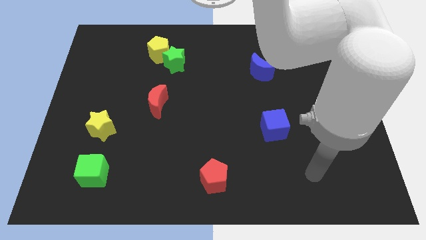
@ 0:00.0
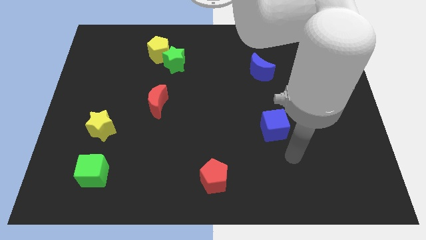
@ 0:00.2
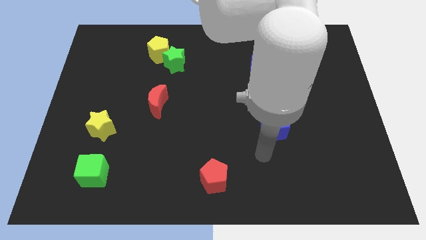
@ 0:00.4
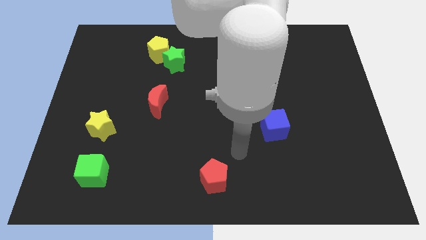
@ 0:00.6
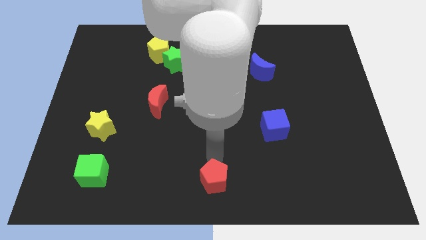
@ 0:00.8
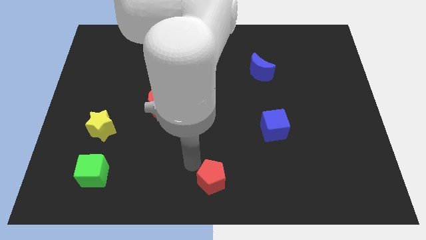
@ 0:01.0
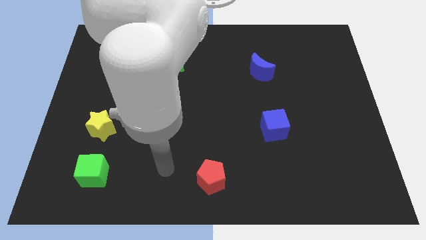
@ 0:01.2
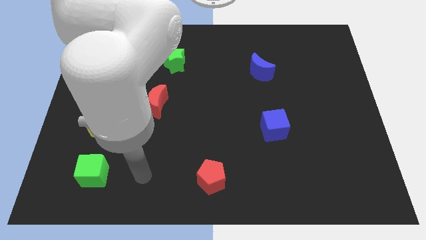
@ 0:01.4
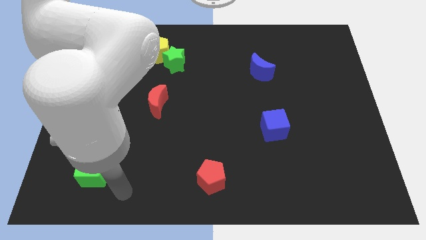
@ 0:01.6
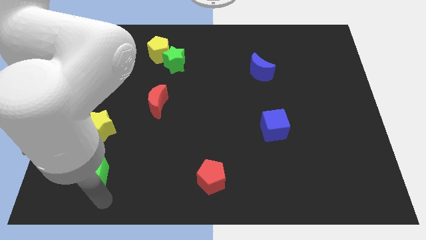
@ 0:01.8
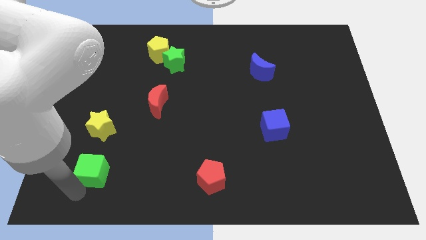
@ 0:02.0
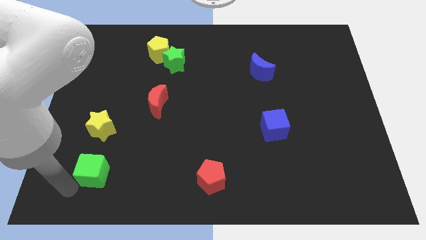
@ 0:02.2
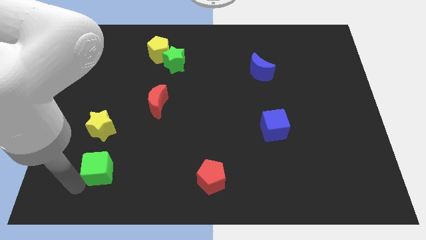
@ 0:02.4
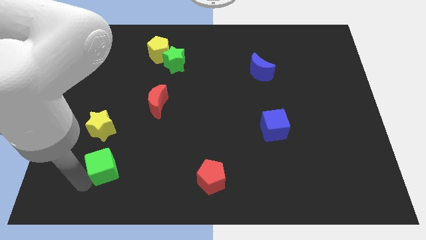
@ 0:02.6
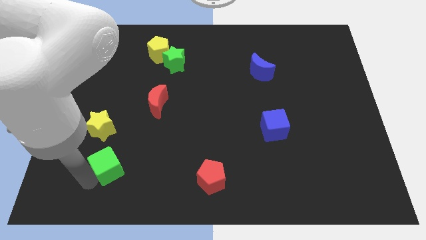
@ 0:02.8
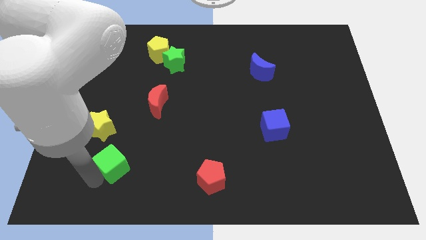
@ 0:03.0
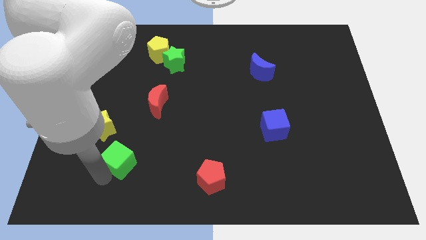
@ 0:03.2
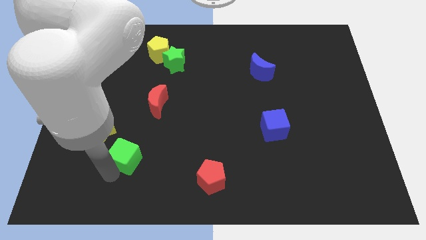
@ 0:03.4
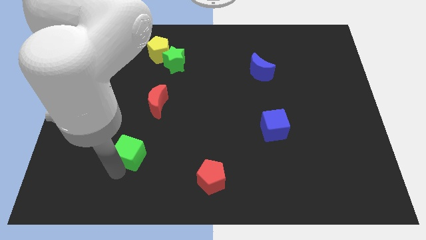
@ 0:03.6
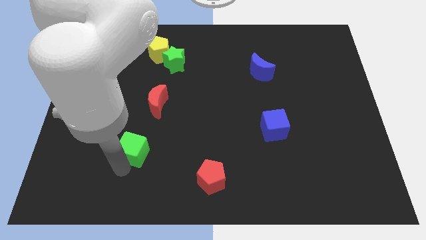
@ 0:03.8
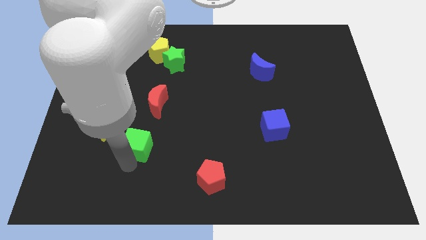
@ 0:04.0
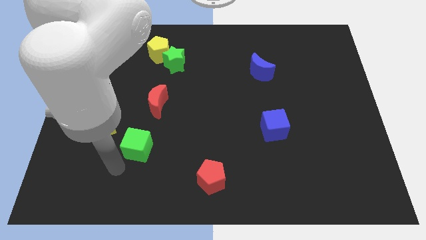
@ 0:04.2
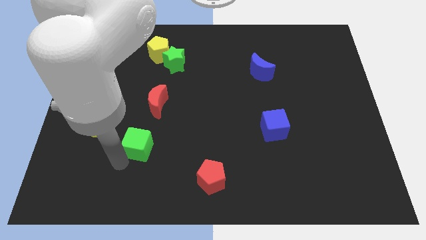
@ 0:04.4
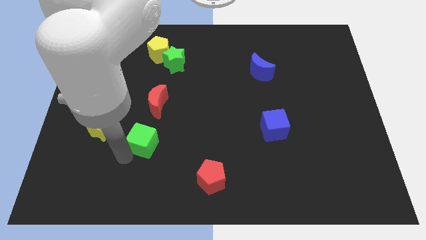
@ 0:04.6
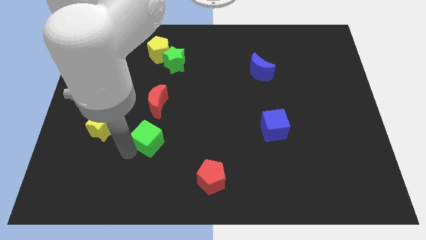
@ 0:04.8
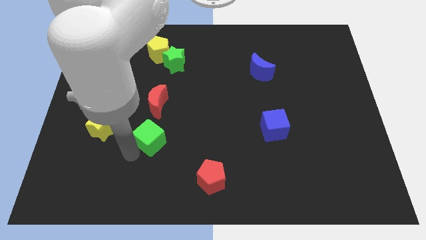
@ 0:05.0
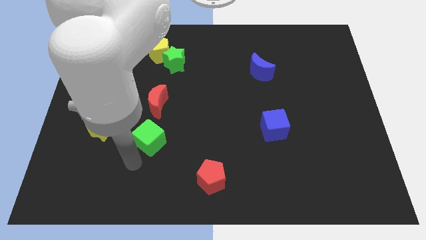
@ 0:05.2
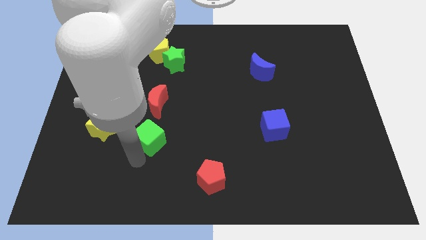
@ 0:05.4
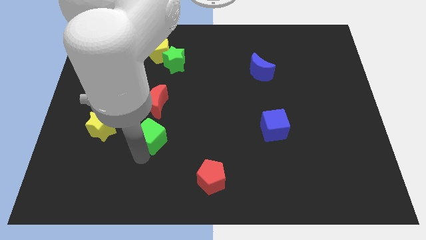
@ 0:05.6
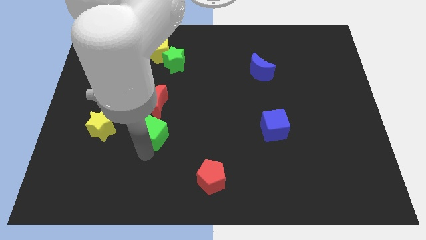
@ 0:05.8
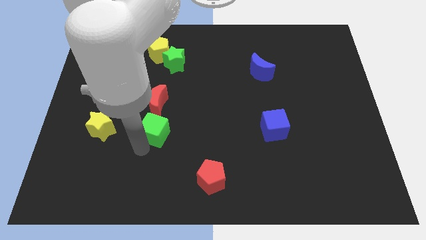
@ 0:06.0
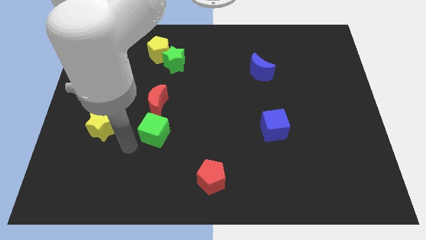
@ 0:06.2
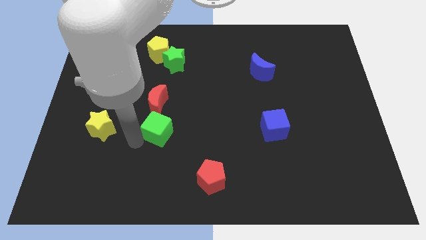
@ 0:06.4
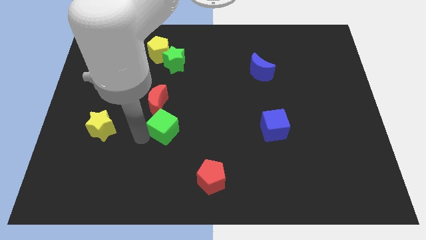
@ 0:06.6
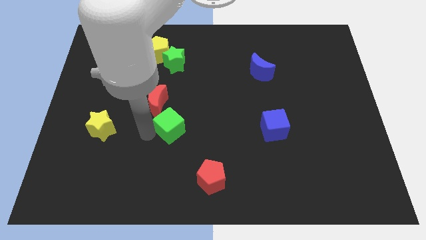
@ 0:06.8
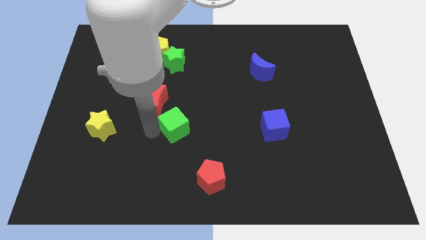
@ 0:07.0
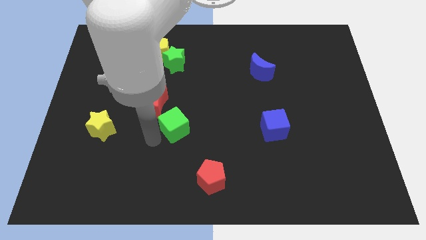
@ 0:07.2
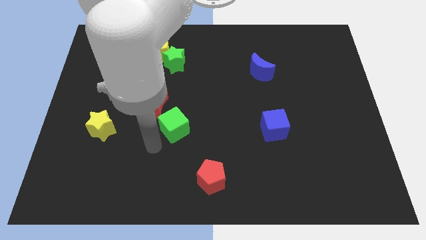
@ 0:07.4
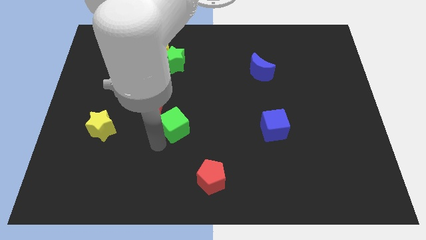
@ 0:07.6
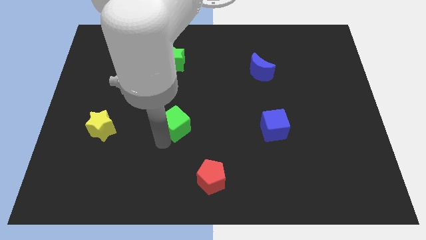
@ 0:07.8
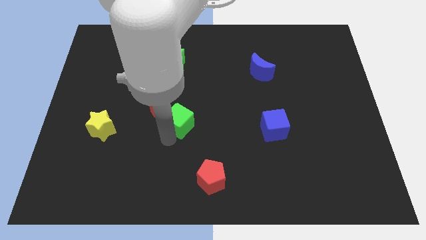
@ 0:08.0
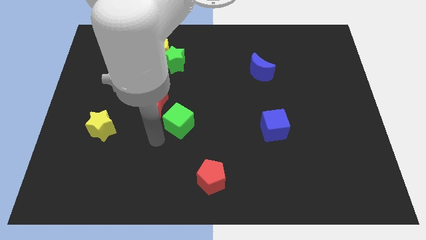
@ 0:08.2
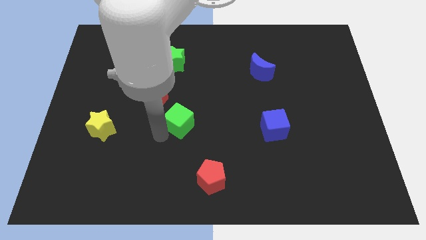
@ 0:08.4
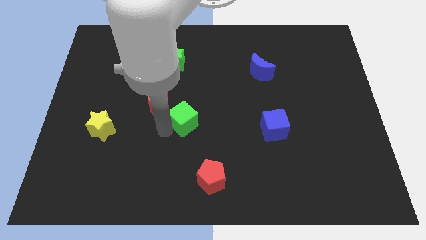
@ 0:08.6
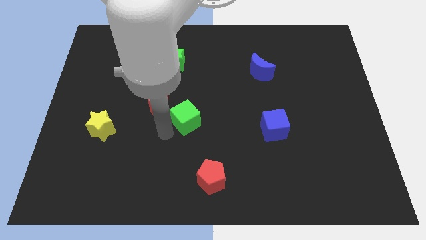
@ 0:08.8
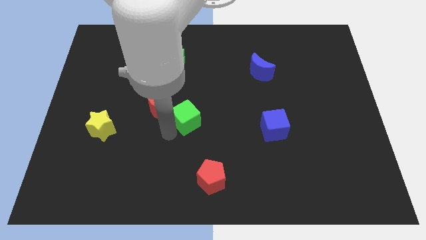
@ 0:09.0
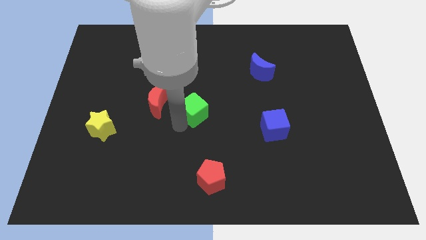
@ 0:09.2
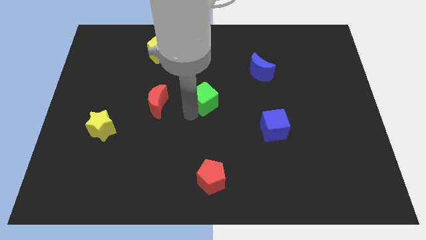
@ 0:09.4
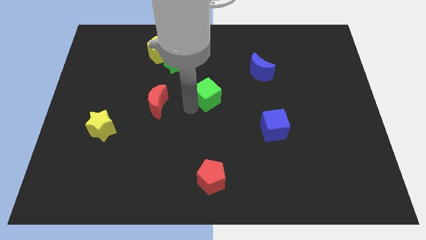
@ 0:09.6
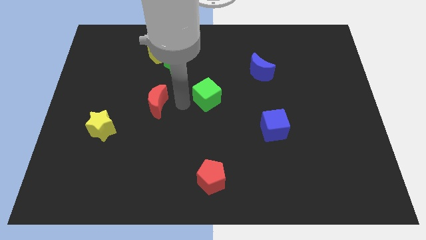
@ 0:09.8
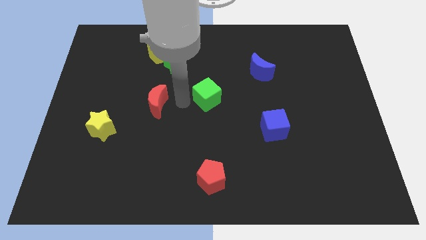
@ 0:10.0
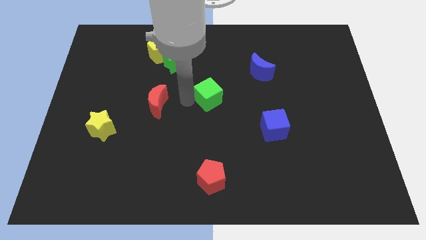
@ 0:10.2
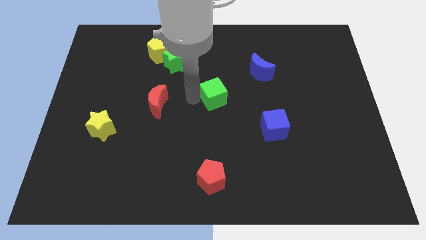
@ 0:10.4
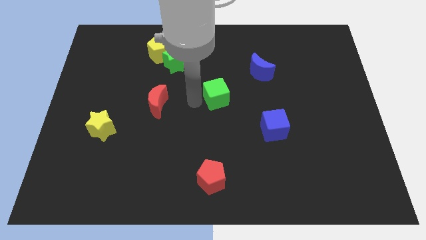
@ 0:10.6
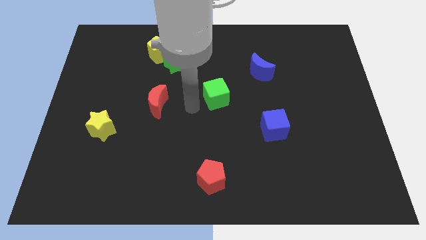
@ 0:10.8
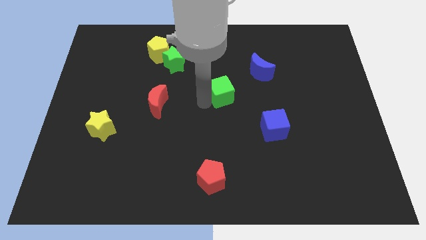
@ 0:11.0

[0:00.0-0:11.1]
push the green cube diagonally down and to the left of the blue moon
